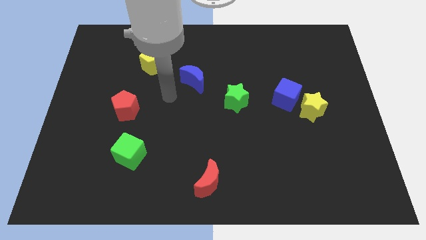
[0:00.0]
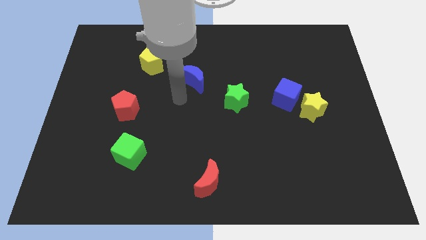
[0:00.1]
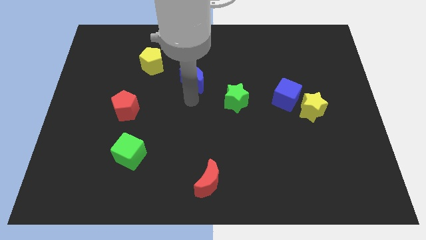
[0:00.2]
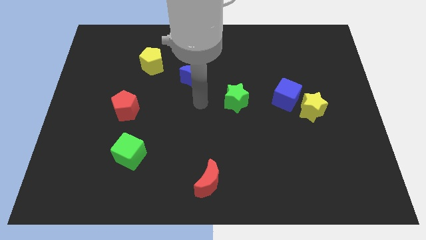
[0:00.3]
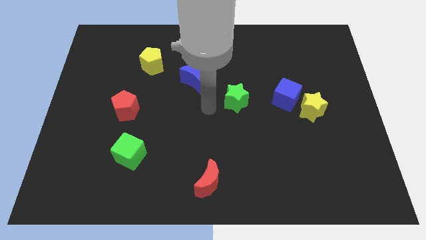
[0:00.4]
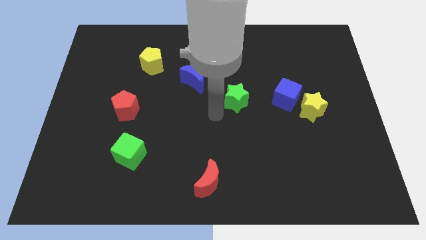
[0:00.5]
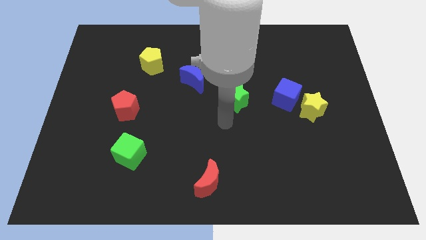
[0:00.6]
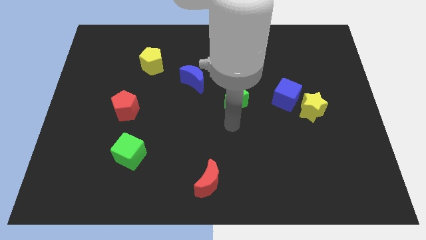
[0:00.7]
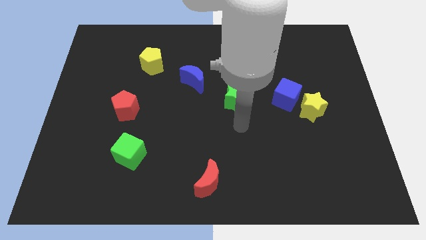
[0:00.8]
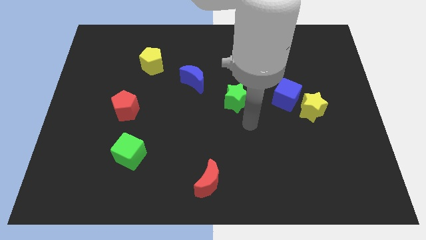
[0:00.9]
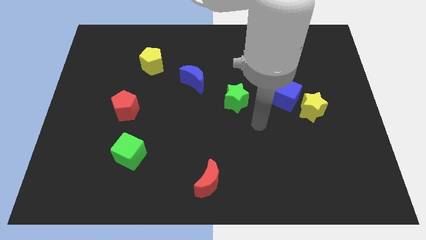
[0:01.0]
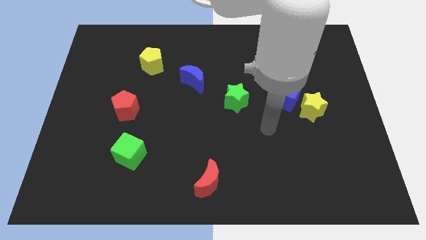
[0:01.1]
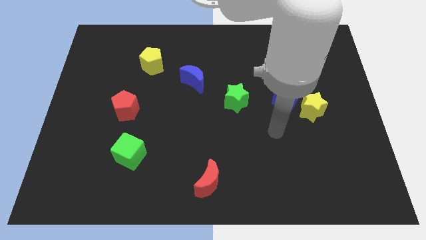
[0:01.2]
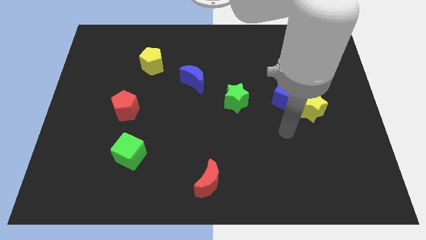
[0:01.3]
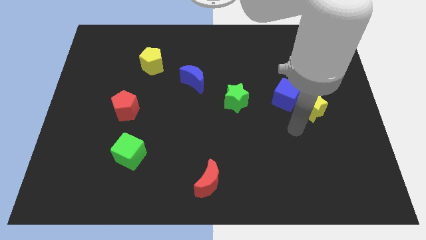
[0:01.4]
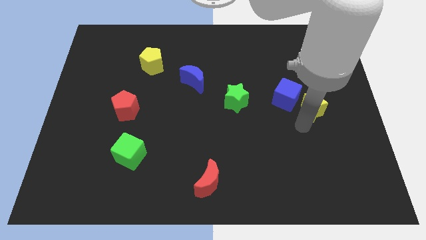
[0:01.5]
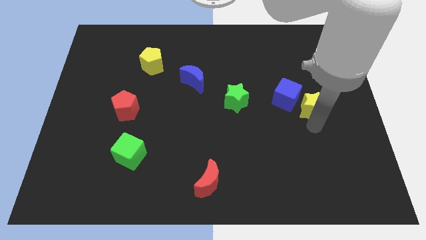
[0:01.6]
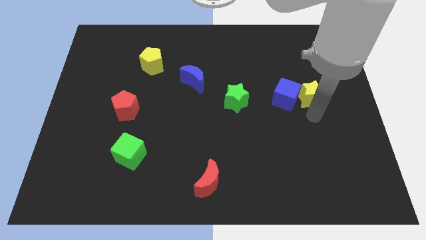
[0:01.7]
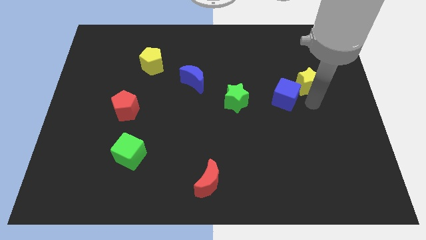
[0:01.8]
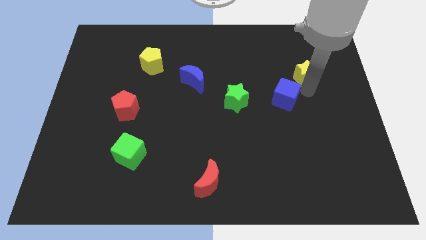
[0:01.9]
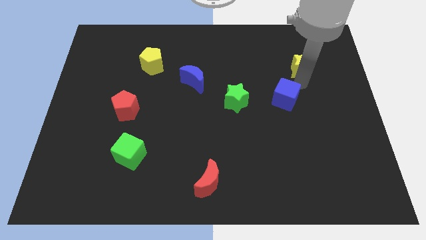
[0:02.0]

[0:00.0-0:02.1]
move the blue cube away from the yellow star

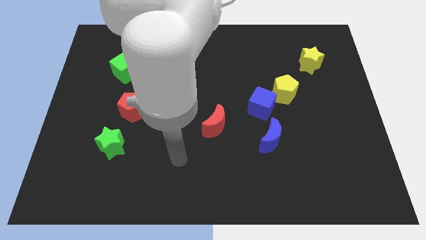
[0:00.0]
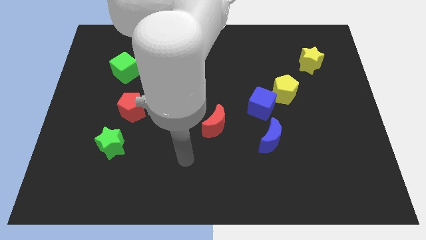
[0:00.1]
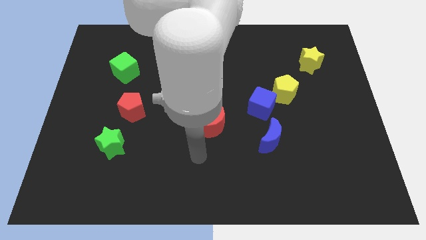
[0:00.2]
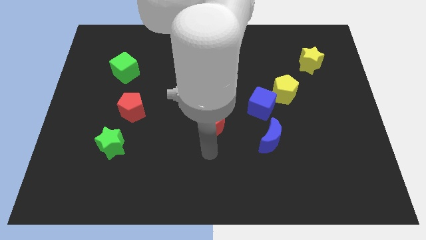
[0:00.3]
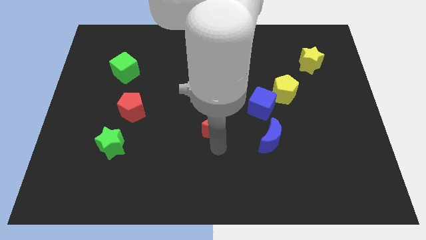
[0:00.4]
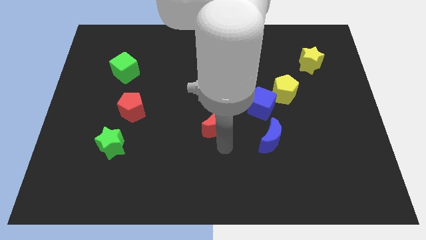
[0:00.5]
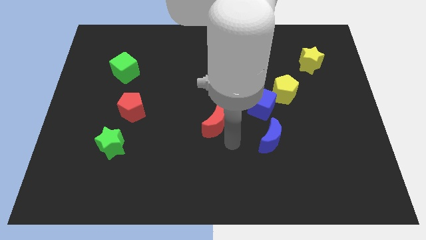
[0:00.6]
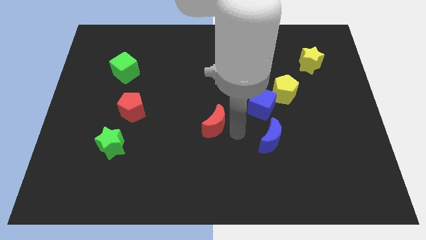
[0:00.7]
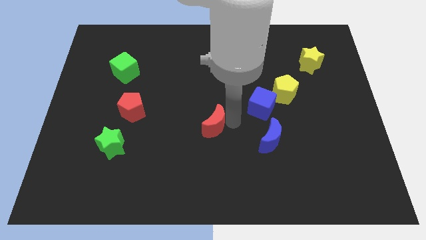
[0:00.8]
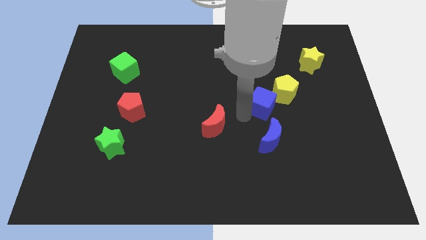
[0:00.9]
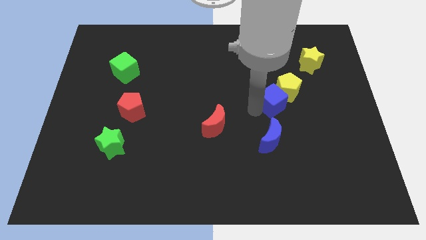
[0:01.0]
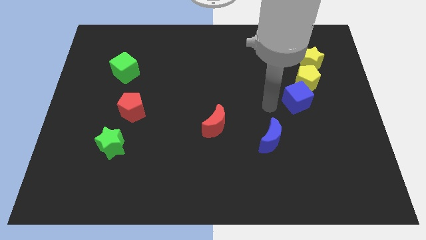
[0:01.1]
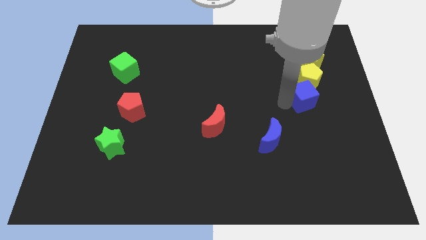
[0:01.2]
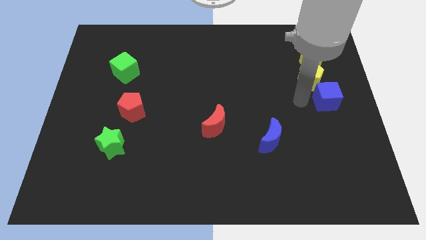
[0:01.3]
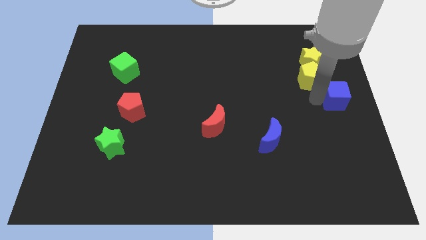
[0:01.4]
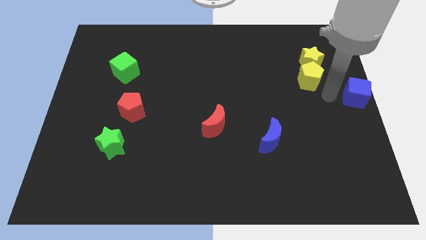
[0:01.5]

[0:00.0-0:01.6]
separate the yellow pentagon from the blue cube

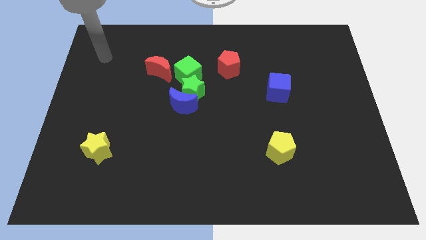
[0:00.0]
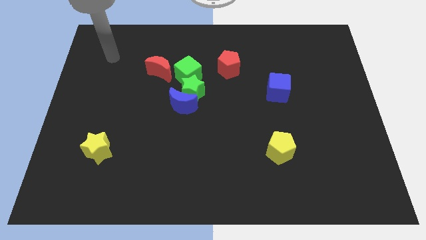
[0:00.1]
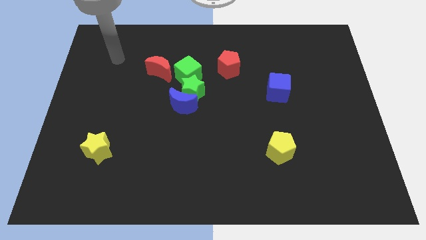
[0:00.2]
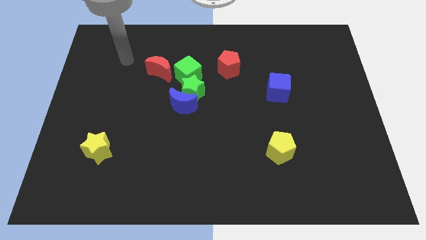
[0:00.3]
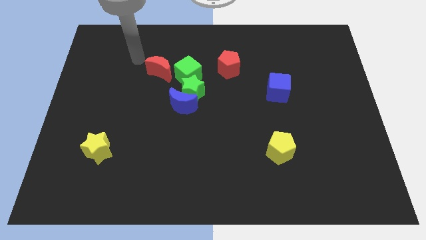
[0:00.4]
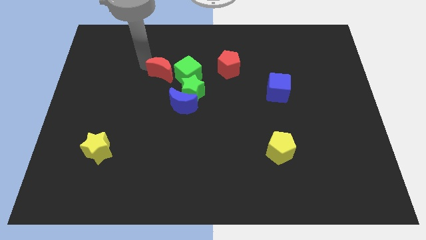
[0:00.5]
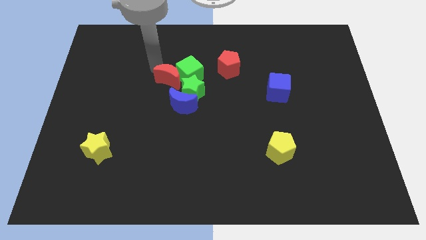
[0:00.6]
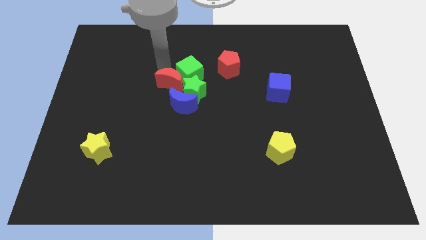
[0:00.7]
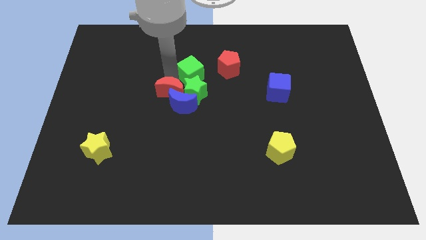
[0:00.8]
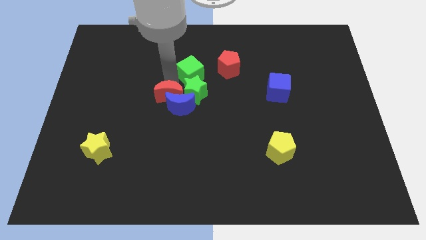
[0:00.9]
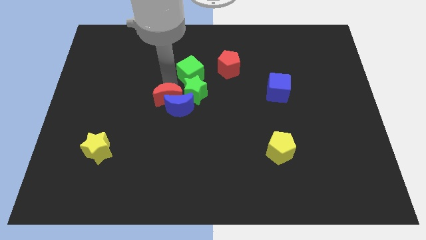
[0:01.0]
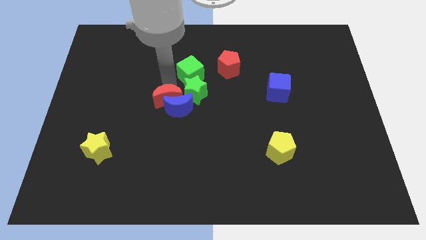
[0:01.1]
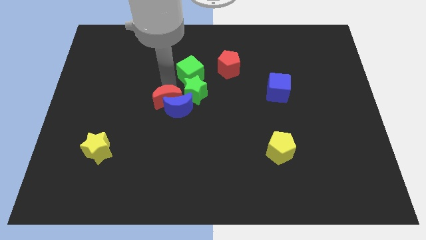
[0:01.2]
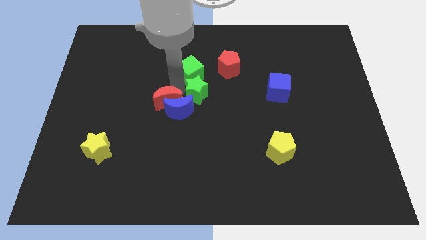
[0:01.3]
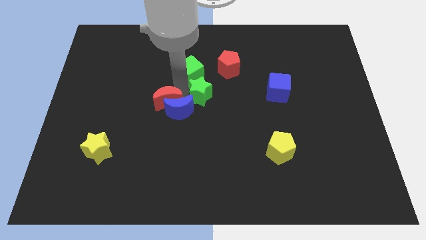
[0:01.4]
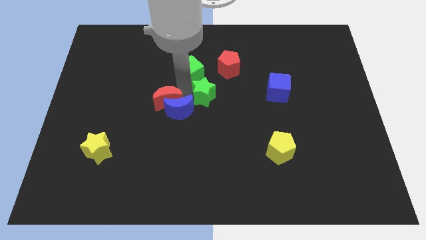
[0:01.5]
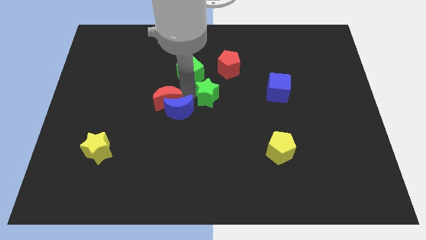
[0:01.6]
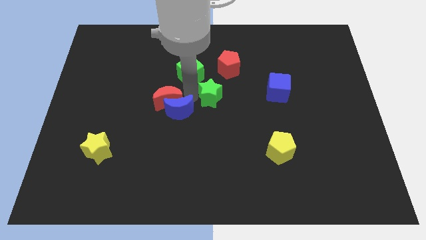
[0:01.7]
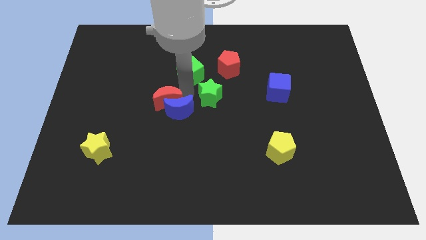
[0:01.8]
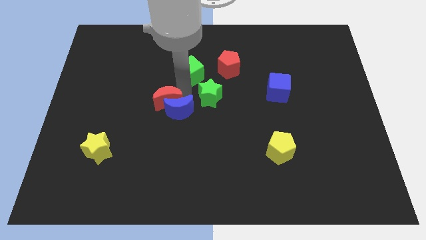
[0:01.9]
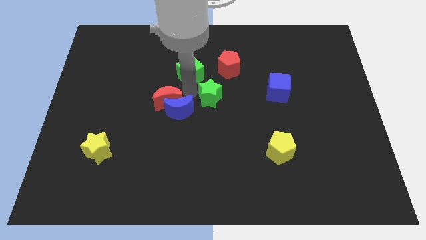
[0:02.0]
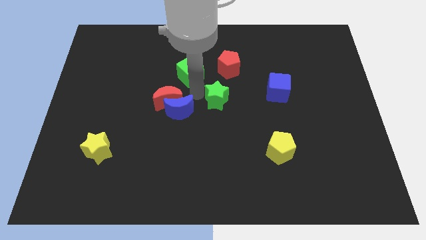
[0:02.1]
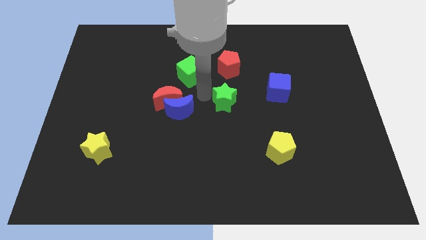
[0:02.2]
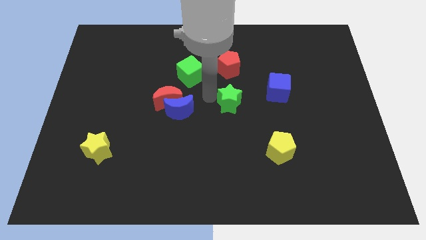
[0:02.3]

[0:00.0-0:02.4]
separate the green star from the blue moon and green cube

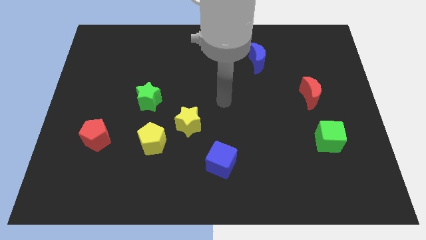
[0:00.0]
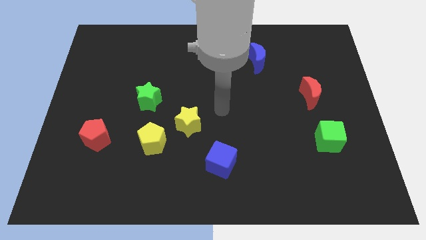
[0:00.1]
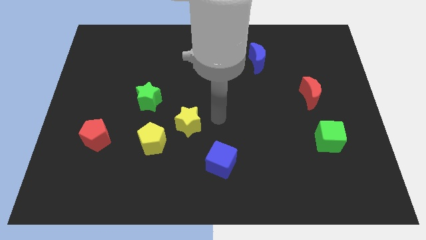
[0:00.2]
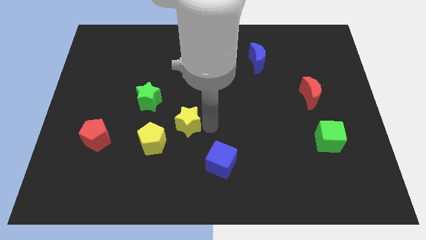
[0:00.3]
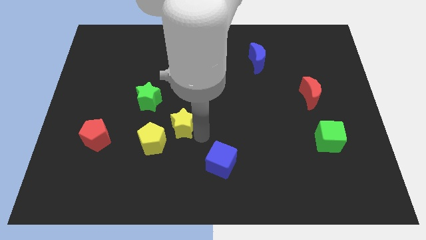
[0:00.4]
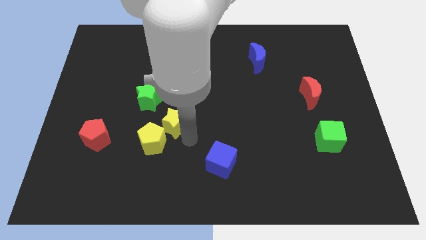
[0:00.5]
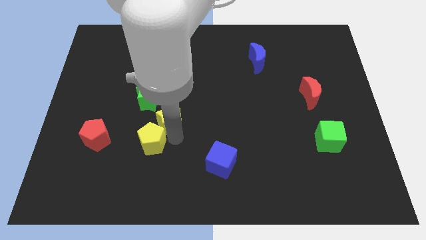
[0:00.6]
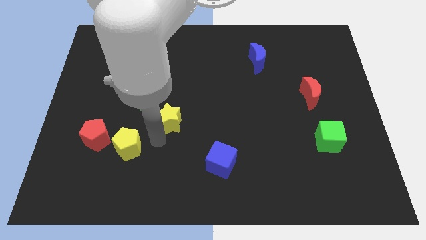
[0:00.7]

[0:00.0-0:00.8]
move the yellow star away from the yellow pentagon

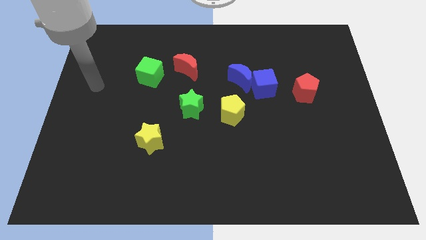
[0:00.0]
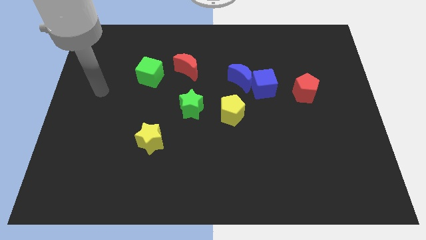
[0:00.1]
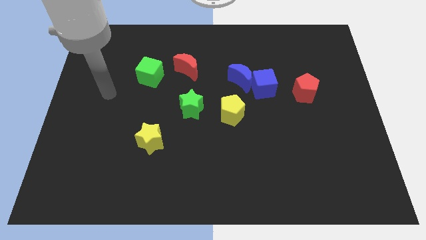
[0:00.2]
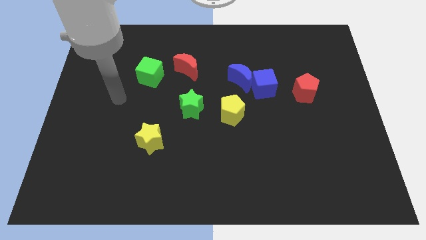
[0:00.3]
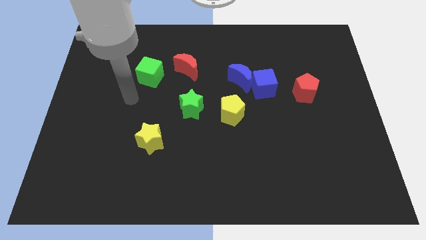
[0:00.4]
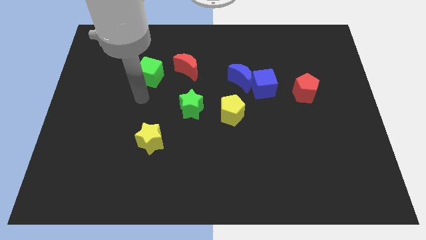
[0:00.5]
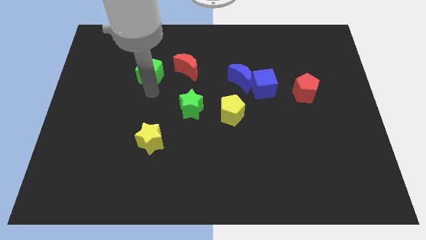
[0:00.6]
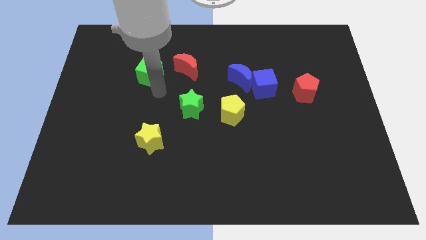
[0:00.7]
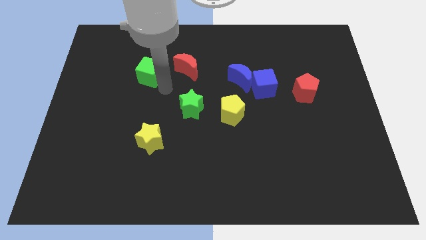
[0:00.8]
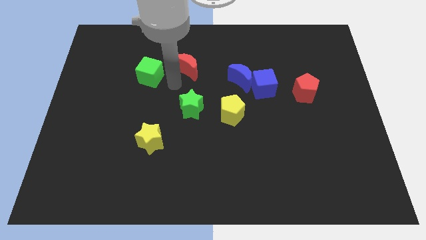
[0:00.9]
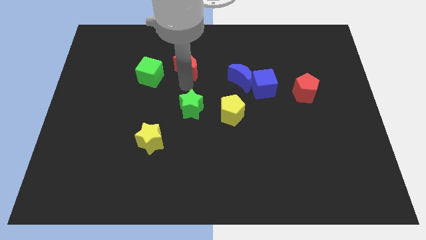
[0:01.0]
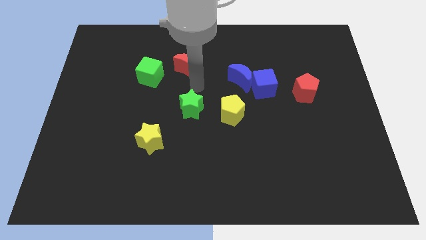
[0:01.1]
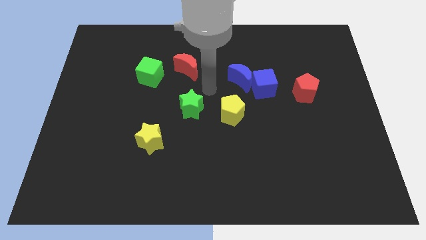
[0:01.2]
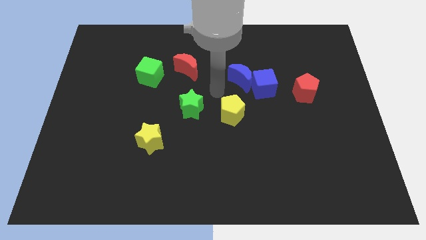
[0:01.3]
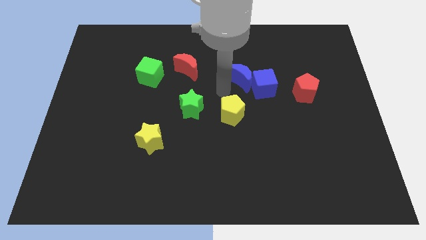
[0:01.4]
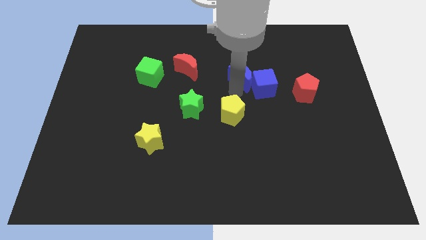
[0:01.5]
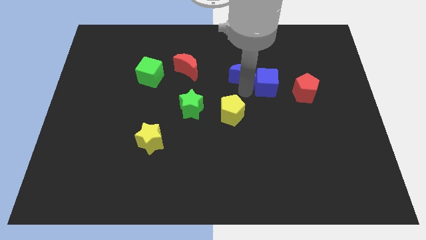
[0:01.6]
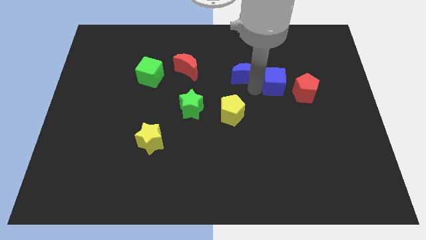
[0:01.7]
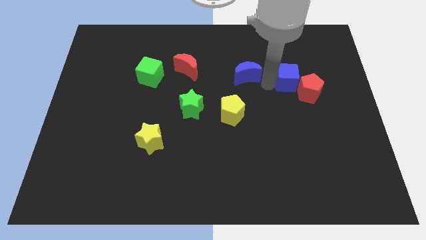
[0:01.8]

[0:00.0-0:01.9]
separate the blue moon from the blue cube

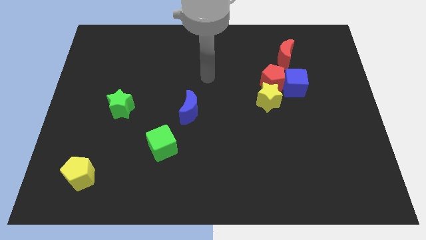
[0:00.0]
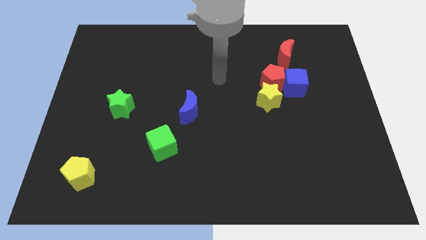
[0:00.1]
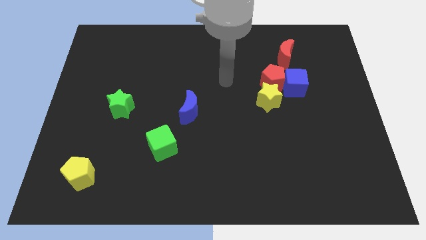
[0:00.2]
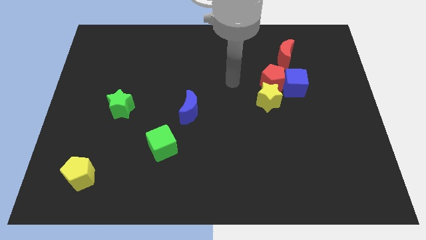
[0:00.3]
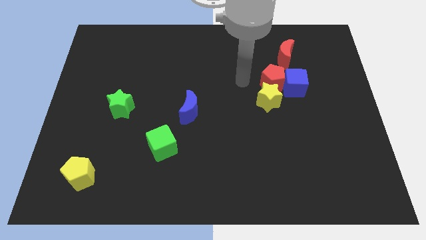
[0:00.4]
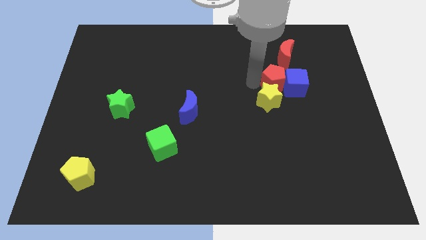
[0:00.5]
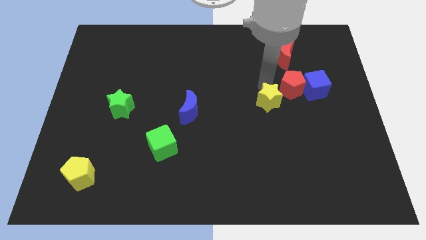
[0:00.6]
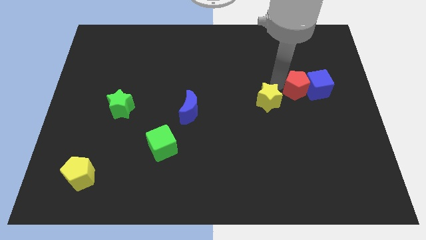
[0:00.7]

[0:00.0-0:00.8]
pull the yellow star apart from the red pentagon and blue cube
